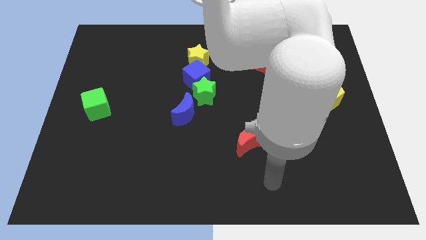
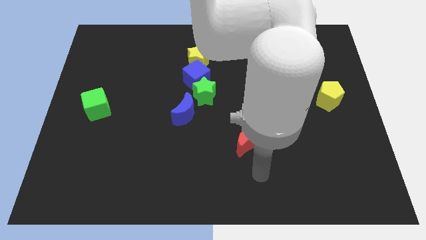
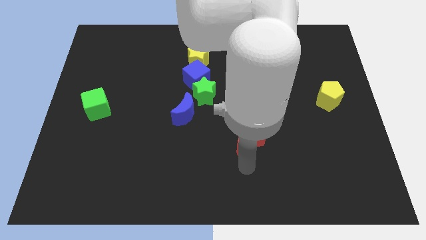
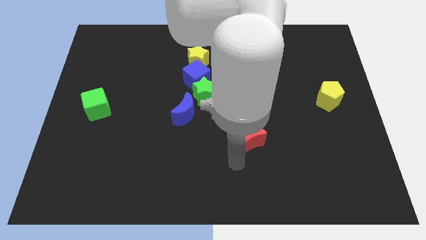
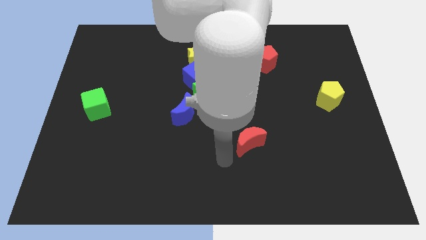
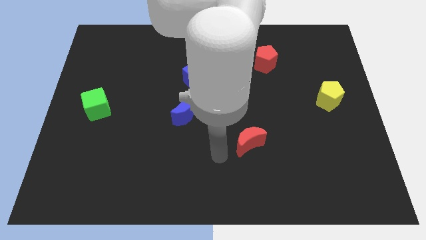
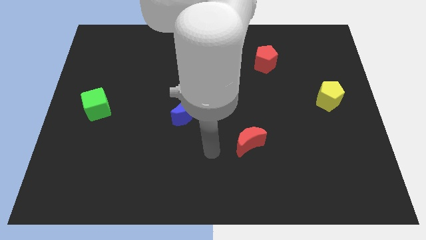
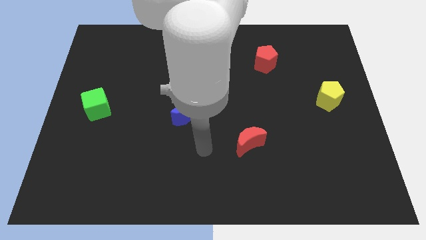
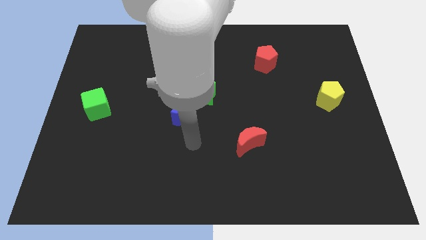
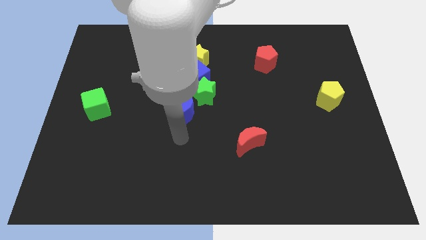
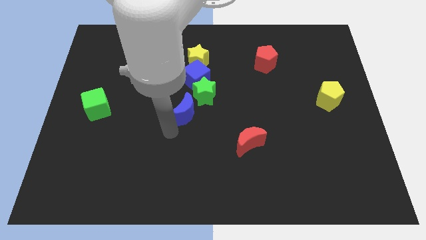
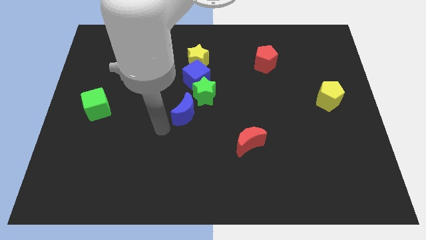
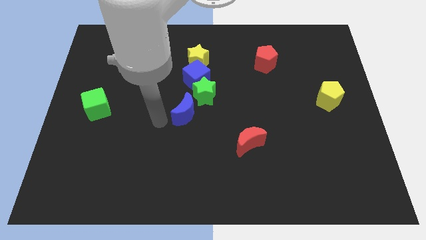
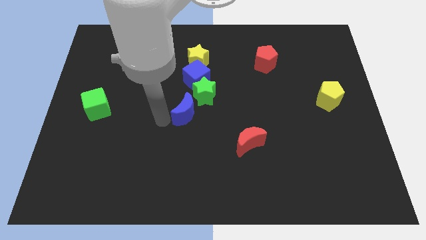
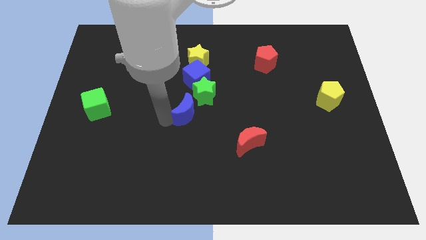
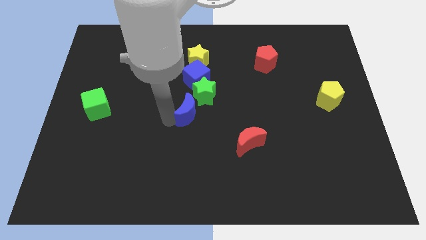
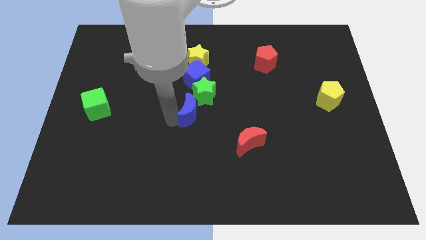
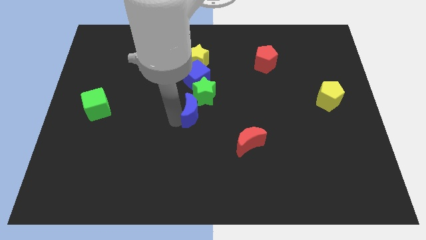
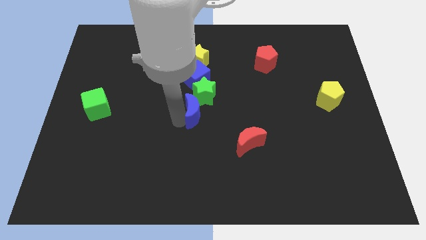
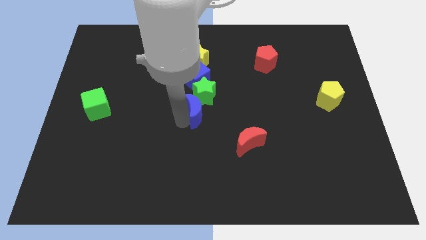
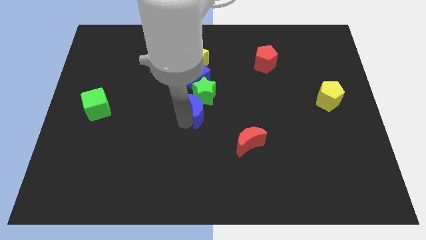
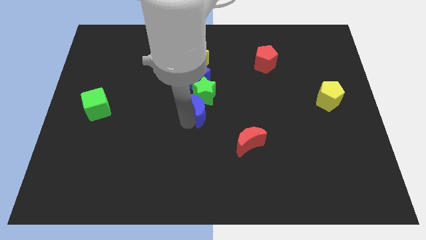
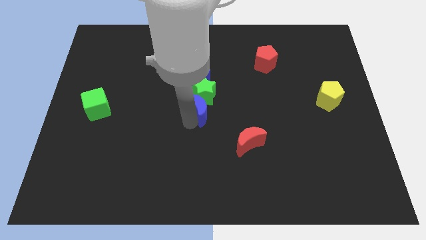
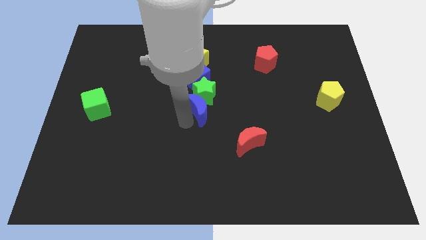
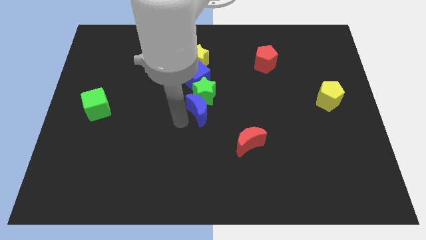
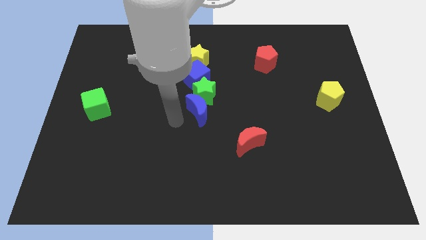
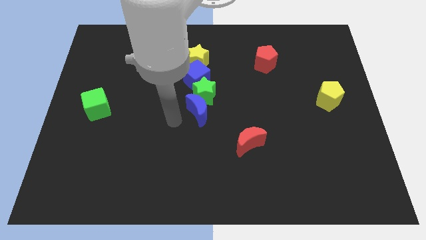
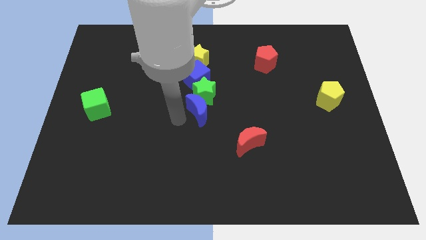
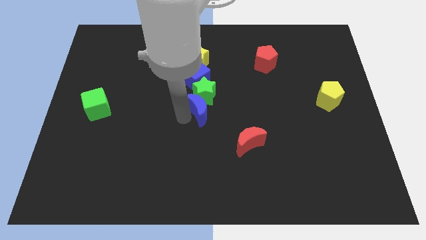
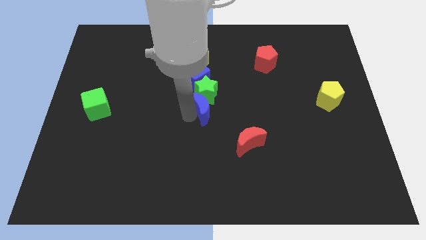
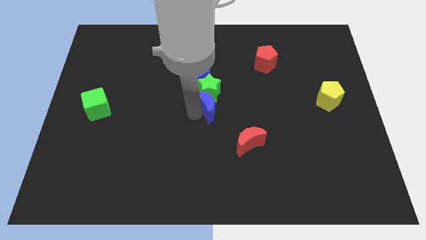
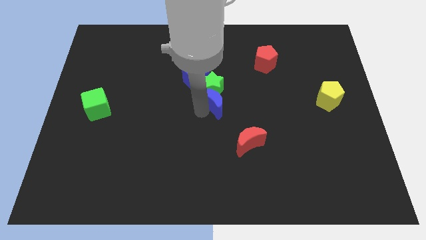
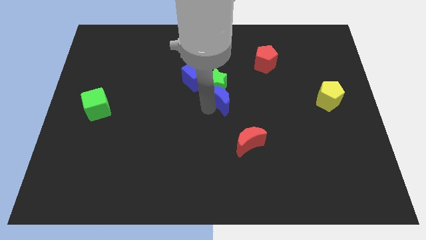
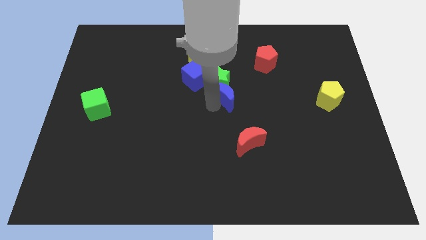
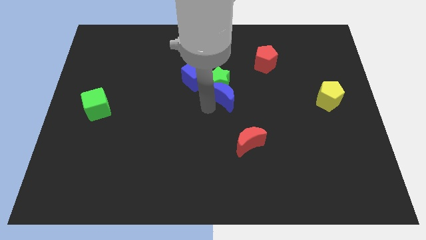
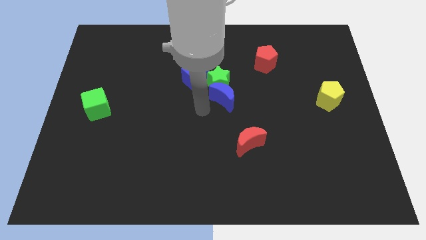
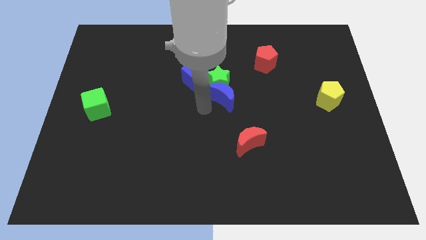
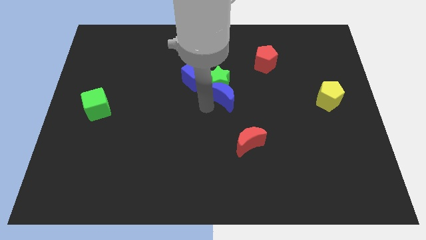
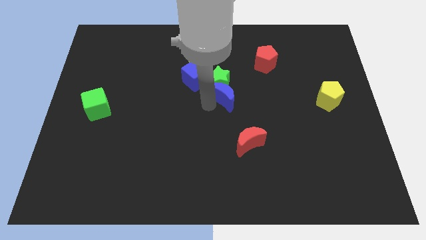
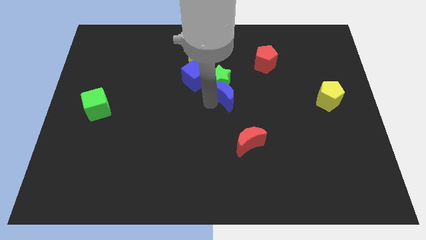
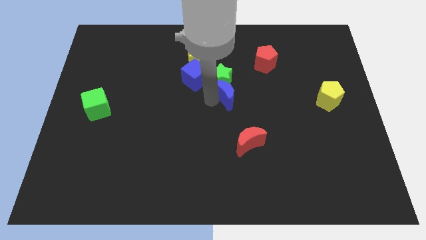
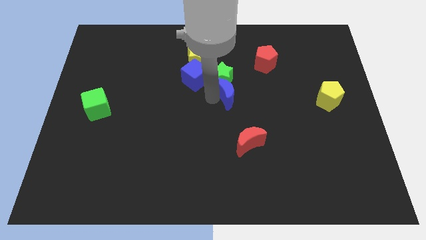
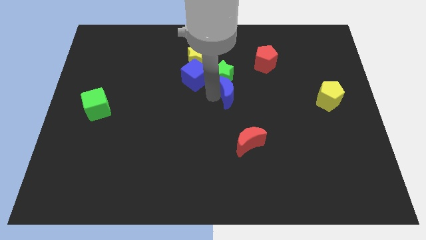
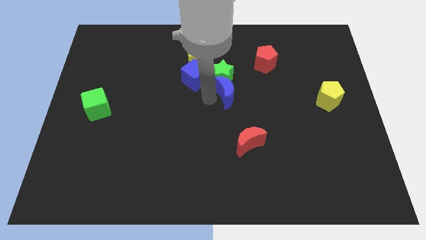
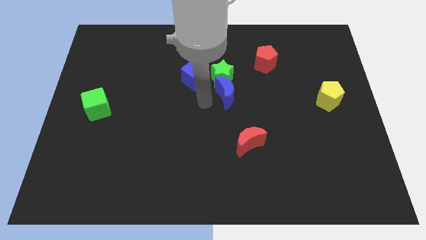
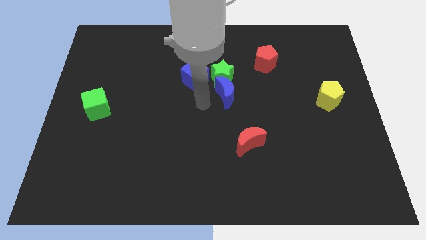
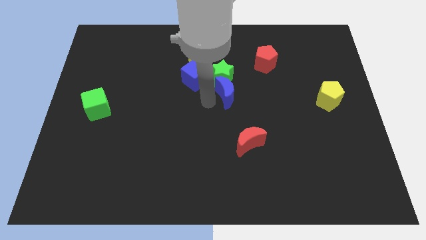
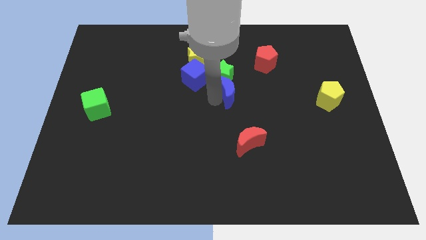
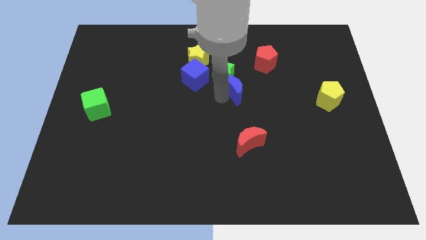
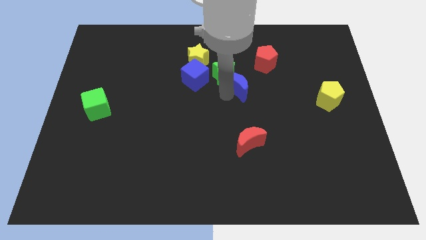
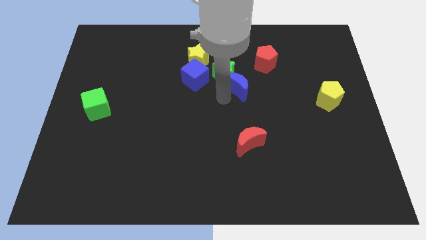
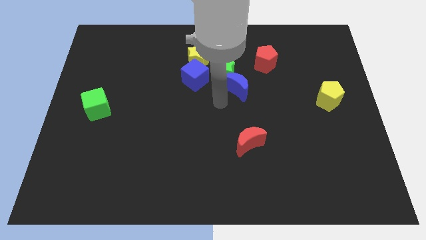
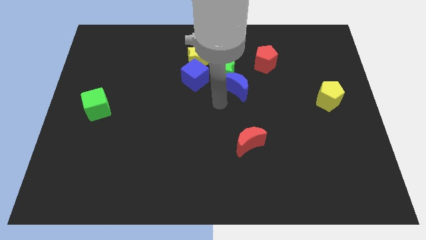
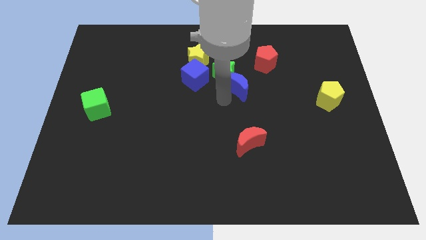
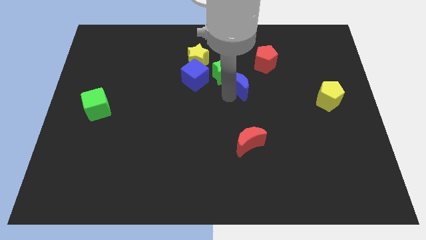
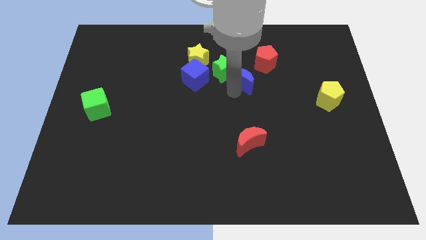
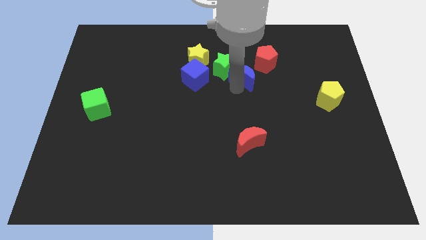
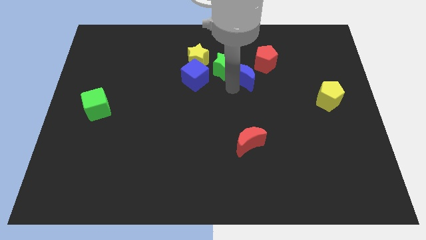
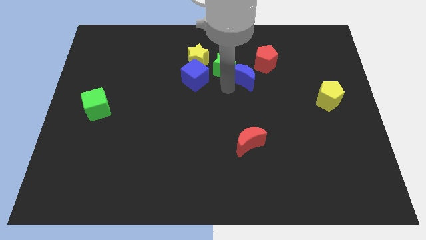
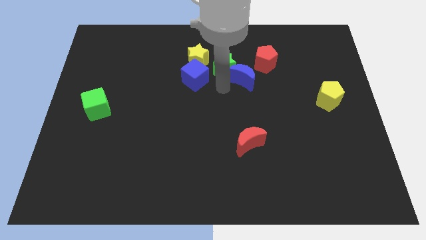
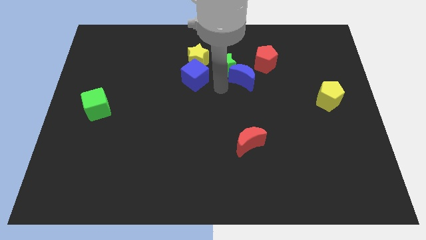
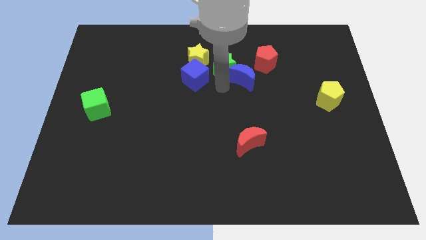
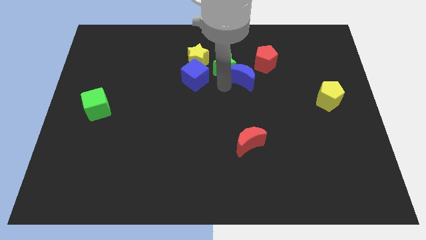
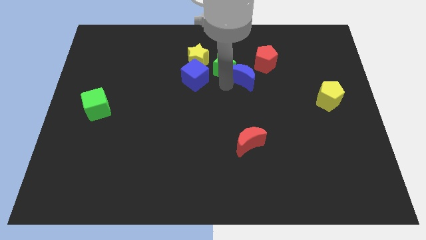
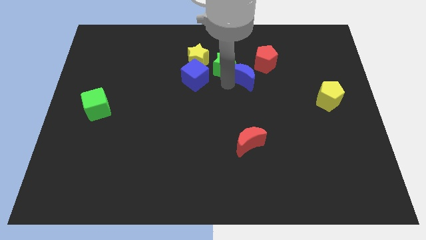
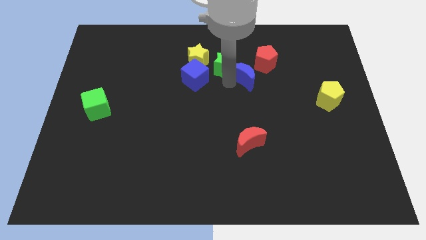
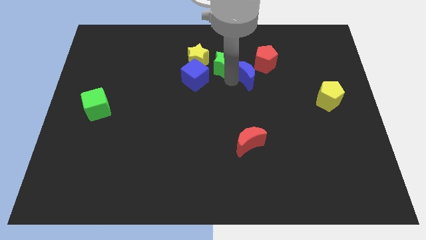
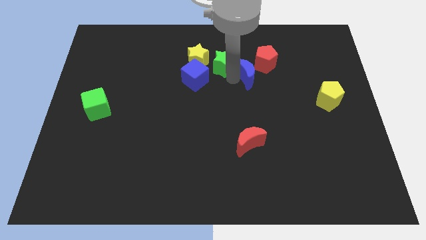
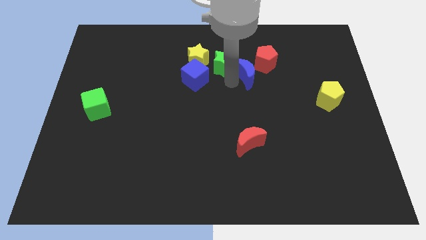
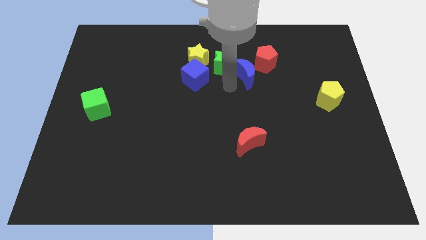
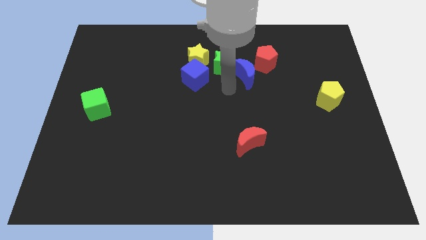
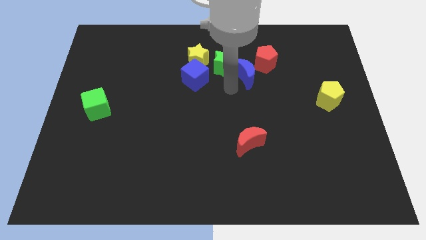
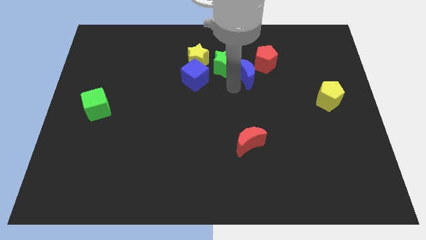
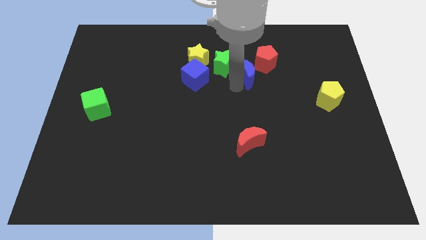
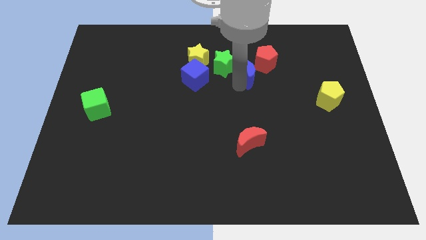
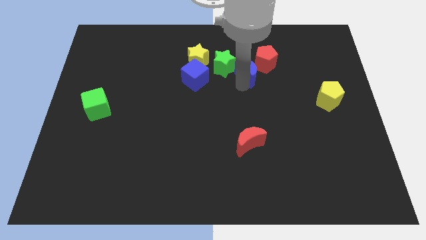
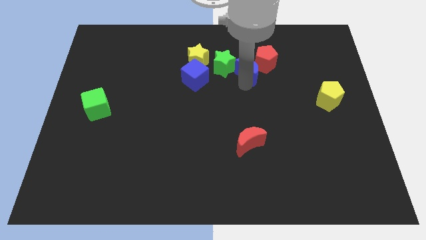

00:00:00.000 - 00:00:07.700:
push the blue moon towards the red pentagon
